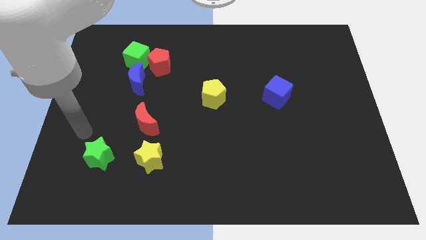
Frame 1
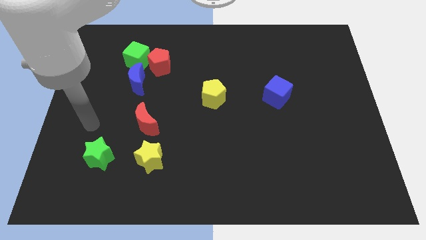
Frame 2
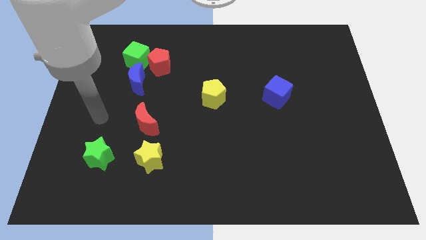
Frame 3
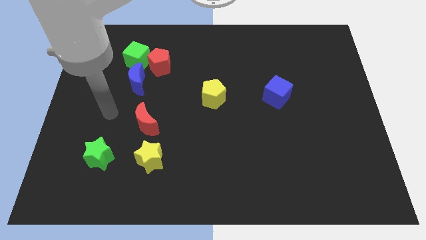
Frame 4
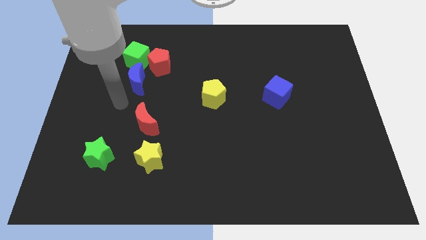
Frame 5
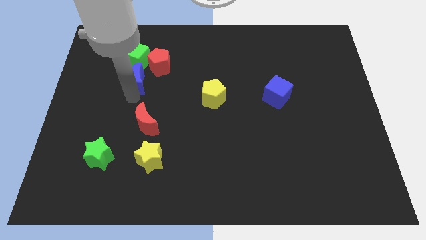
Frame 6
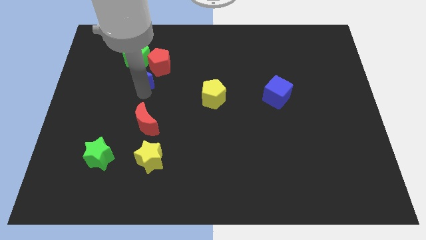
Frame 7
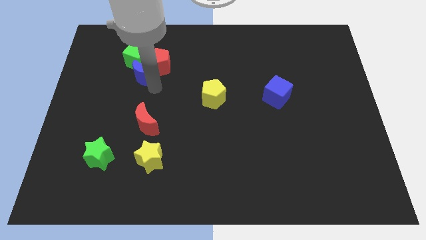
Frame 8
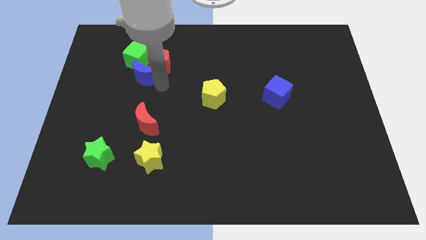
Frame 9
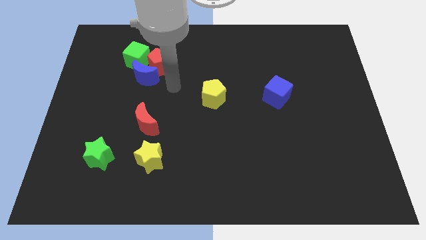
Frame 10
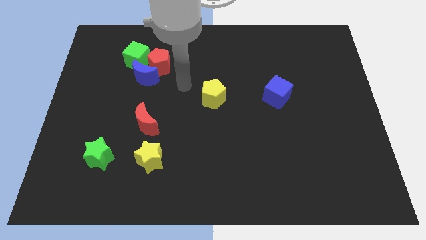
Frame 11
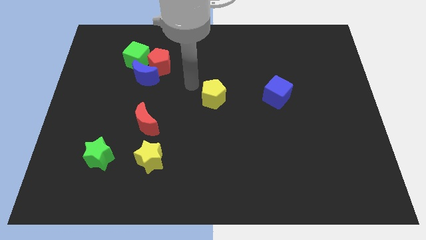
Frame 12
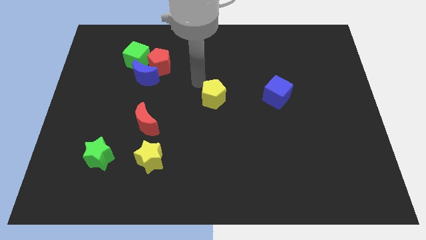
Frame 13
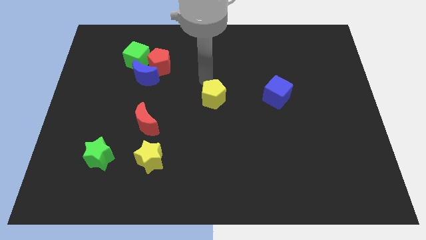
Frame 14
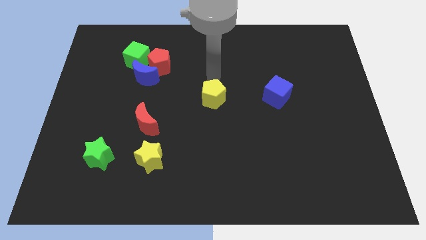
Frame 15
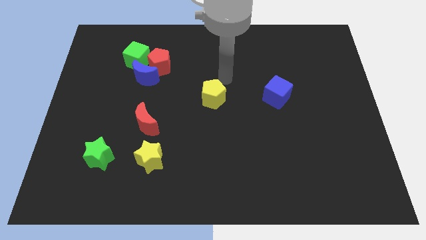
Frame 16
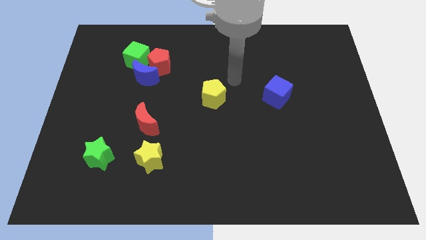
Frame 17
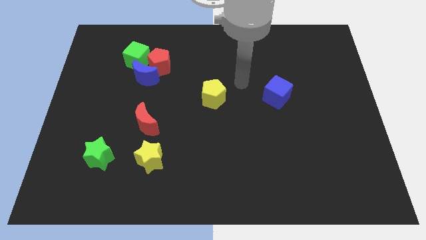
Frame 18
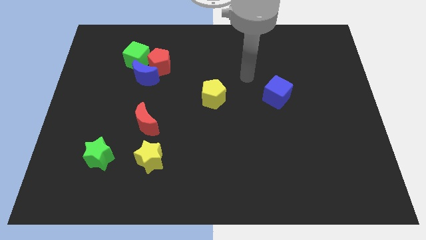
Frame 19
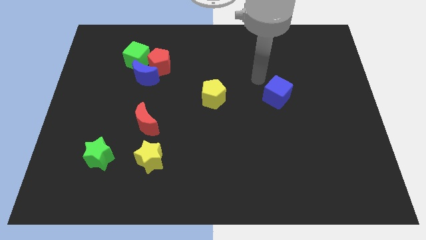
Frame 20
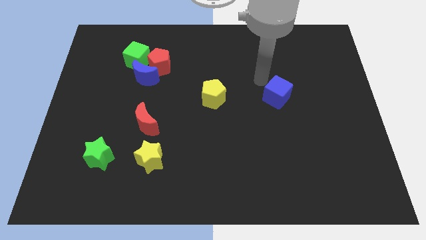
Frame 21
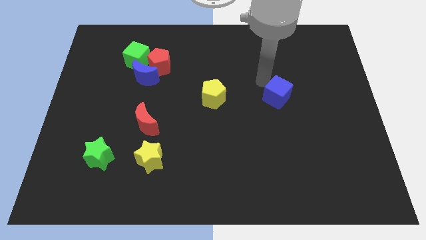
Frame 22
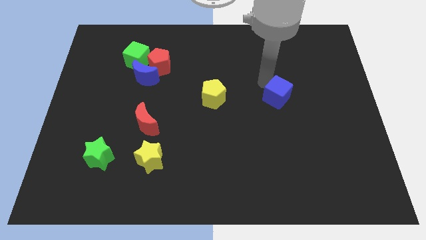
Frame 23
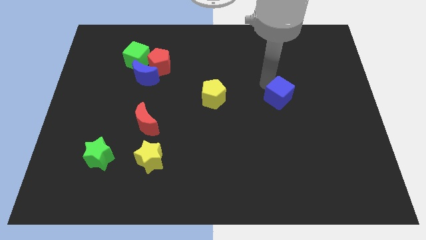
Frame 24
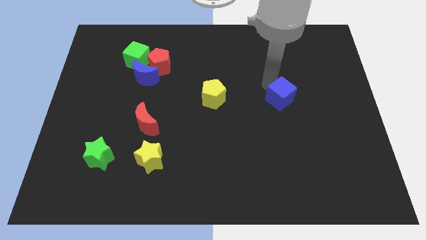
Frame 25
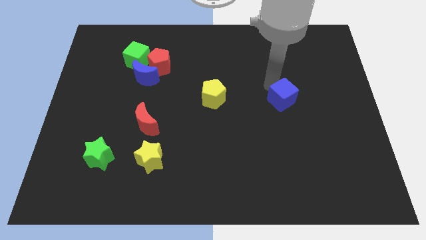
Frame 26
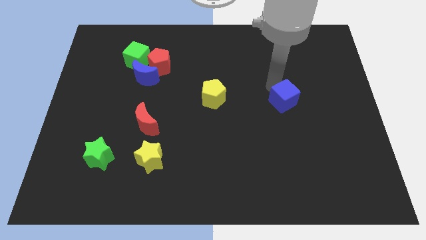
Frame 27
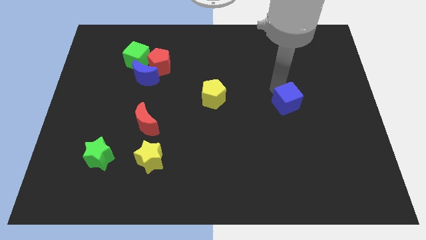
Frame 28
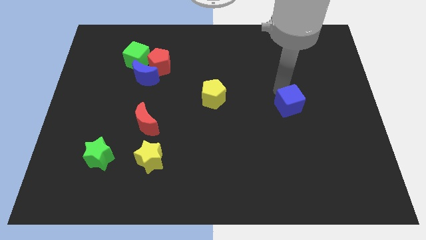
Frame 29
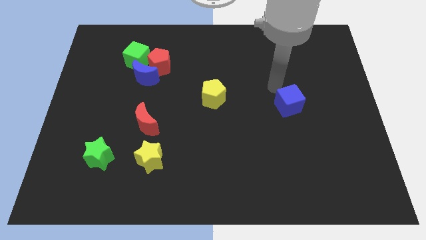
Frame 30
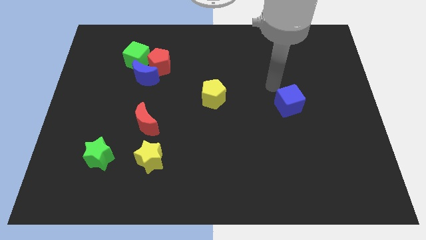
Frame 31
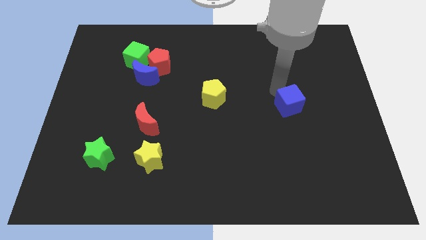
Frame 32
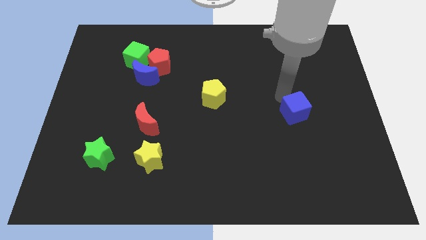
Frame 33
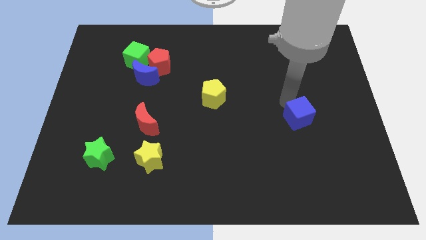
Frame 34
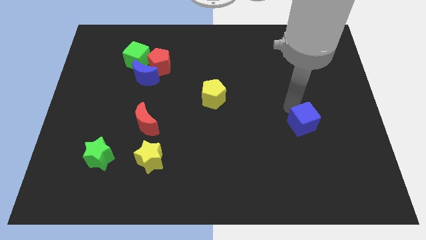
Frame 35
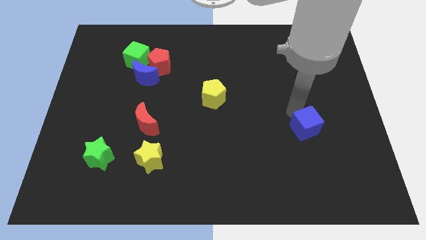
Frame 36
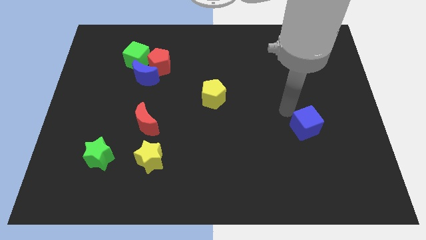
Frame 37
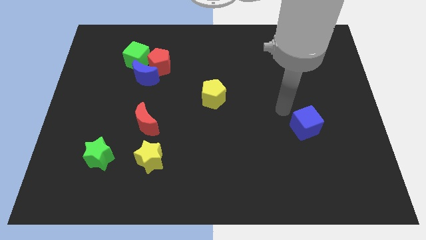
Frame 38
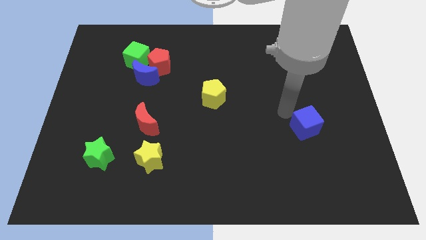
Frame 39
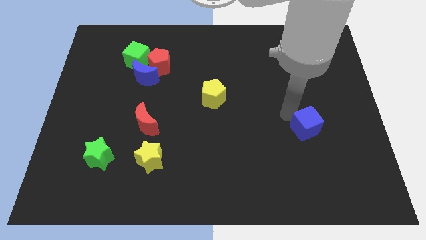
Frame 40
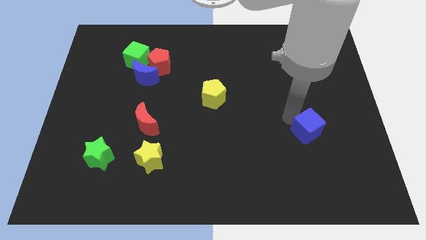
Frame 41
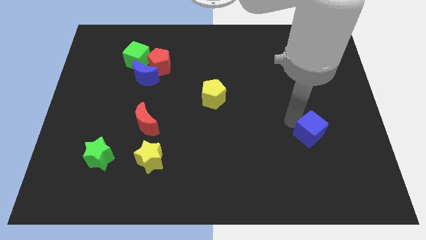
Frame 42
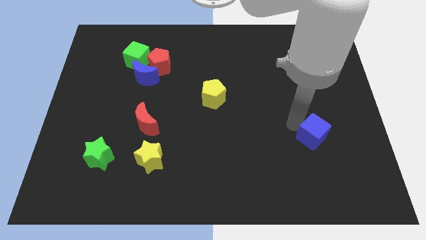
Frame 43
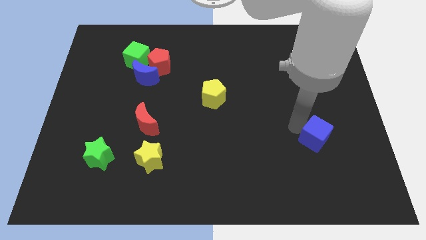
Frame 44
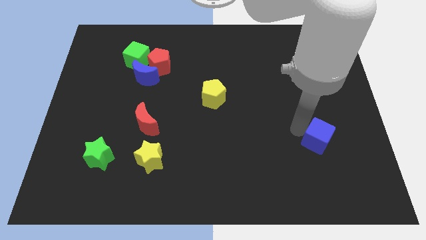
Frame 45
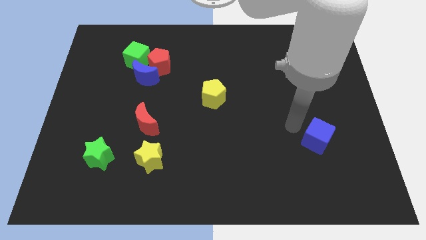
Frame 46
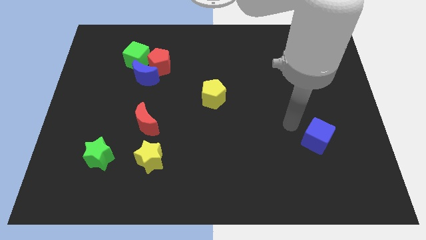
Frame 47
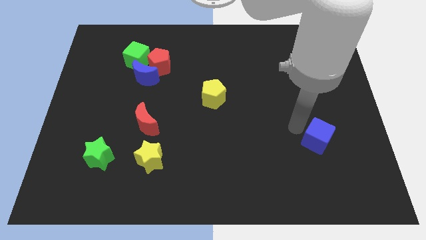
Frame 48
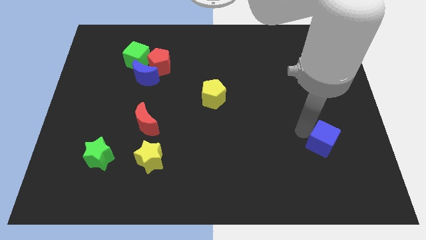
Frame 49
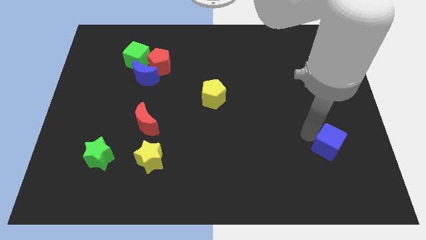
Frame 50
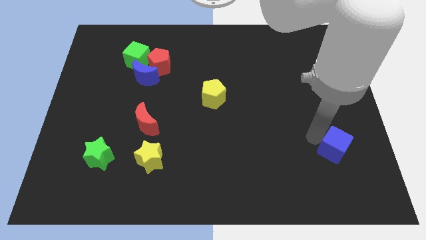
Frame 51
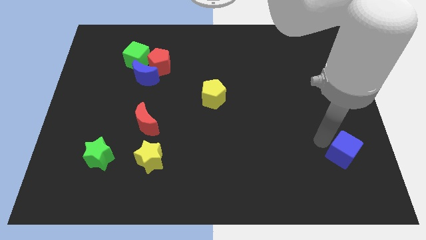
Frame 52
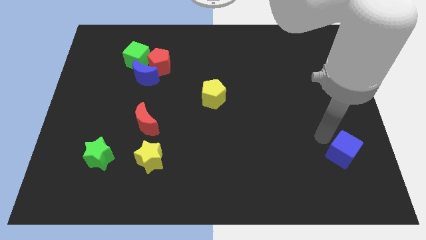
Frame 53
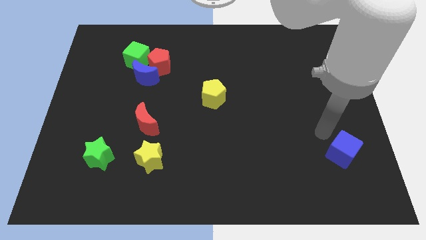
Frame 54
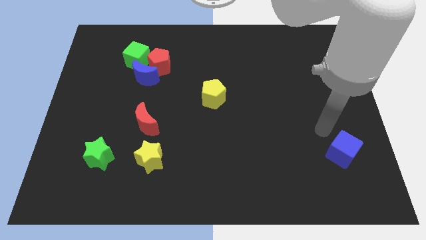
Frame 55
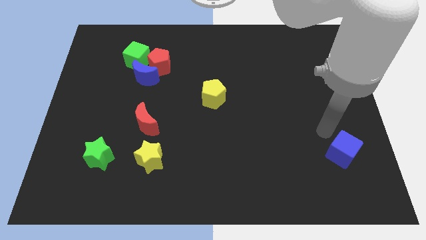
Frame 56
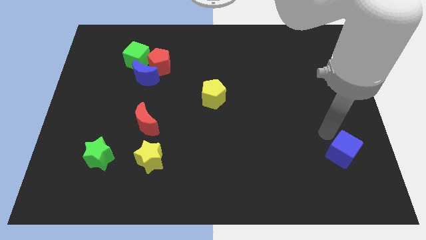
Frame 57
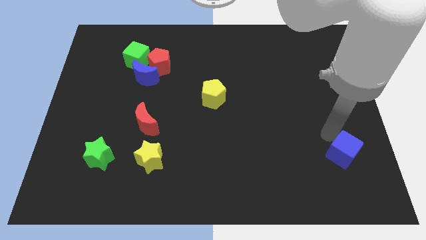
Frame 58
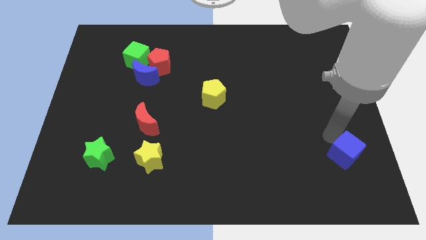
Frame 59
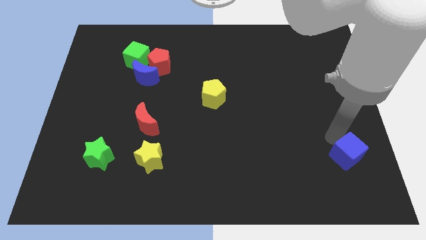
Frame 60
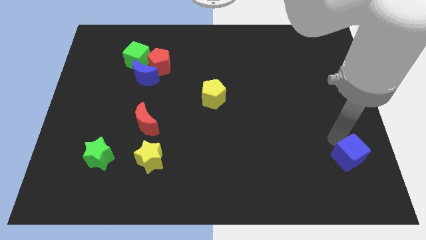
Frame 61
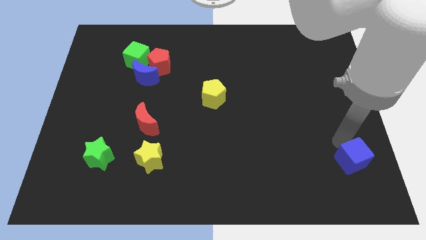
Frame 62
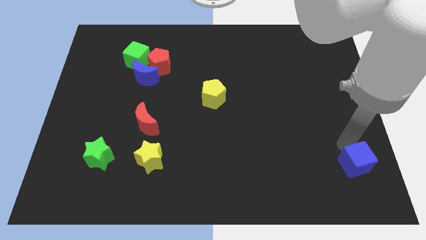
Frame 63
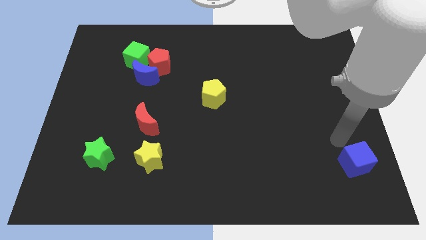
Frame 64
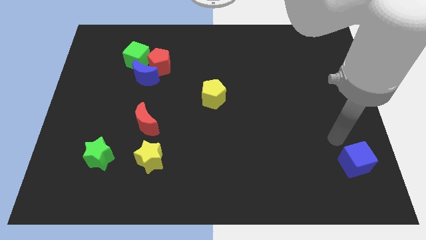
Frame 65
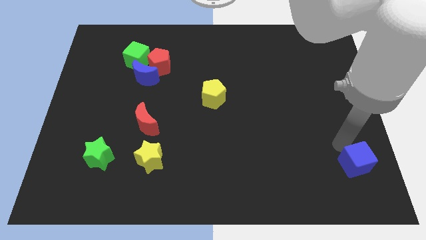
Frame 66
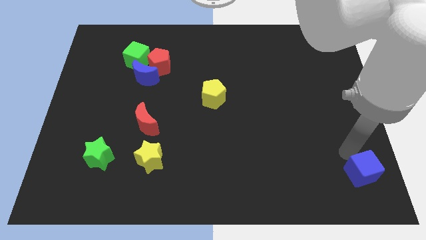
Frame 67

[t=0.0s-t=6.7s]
slide the blue cube to the bottom right
